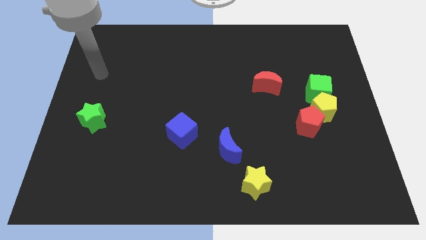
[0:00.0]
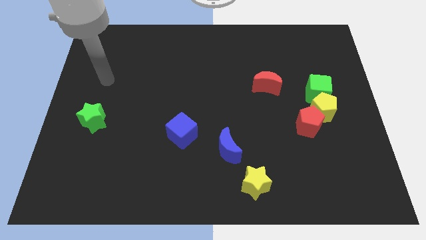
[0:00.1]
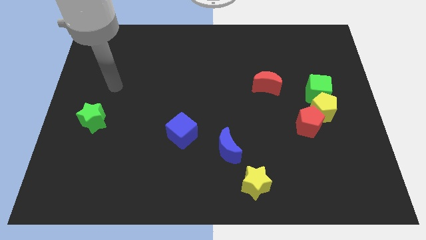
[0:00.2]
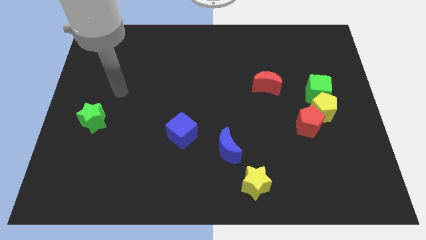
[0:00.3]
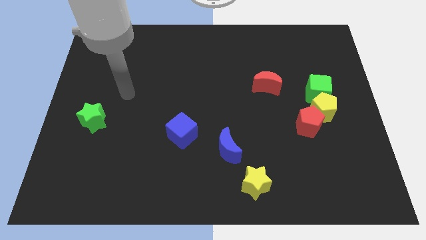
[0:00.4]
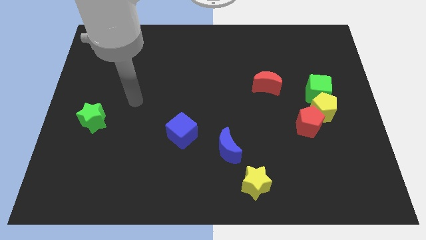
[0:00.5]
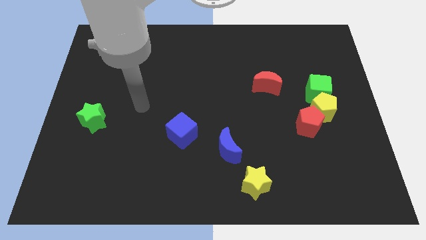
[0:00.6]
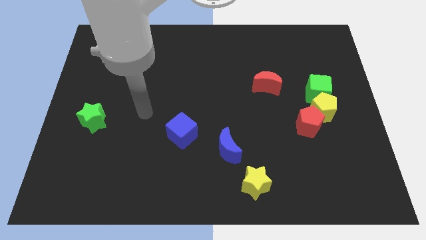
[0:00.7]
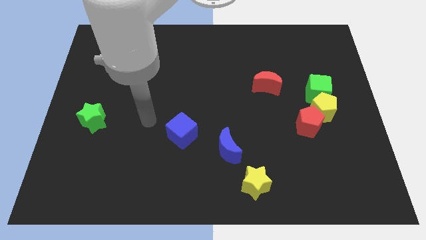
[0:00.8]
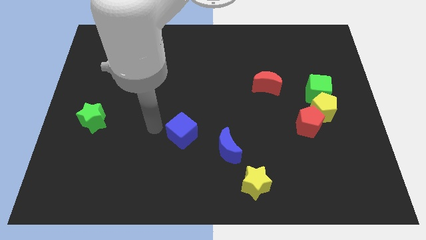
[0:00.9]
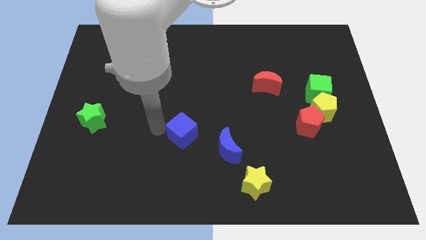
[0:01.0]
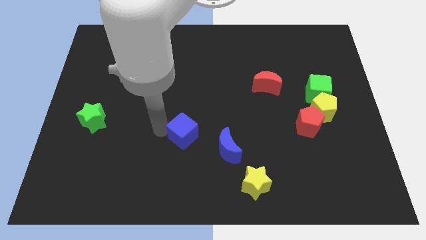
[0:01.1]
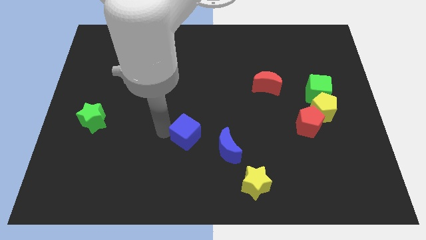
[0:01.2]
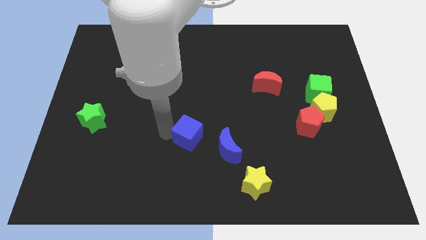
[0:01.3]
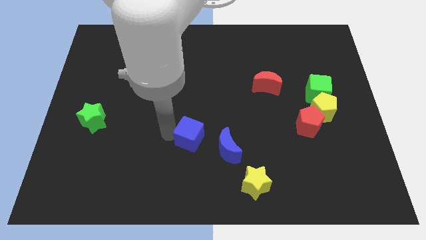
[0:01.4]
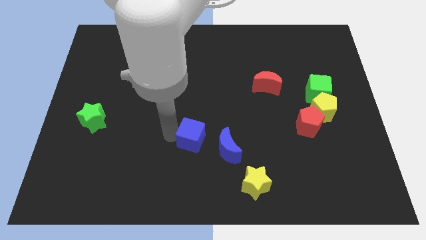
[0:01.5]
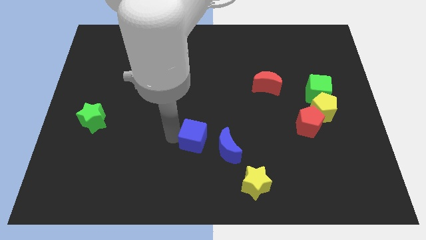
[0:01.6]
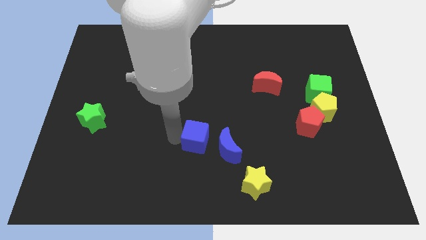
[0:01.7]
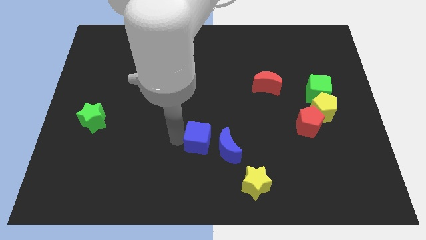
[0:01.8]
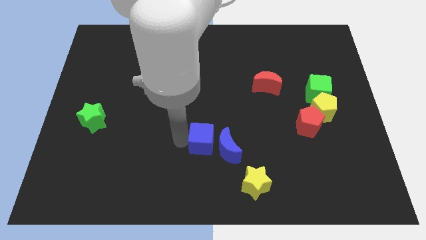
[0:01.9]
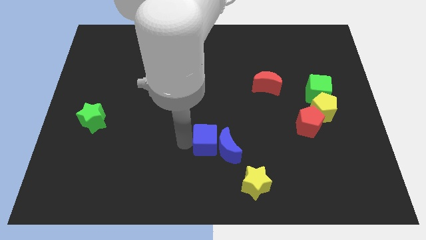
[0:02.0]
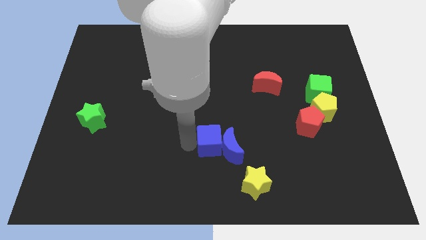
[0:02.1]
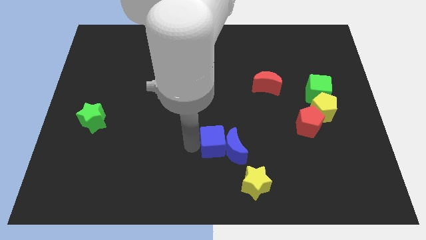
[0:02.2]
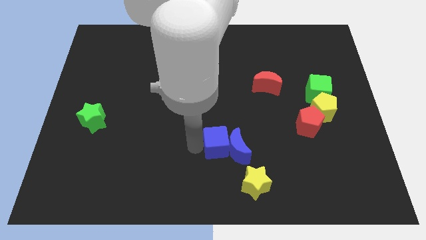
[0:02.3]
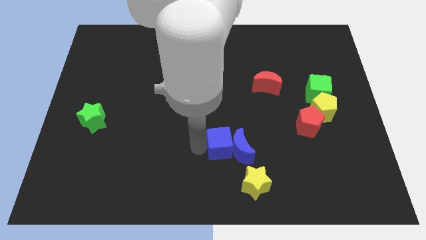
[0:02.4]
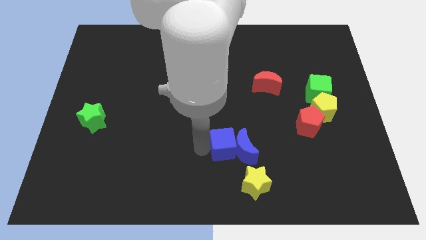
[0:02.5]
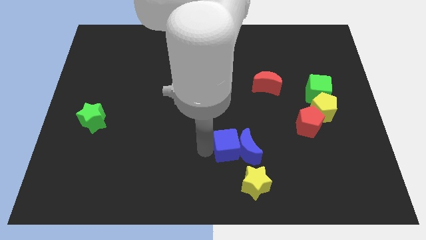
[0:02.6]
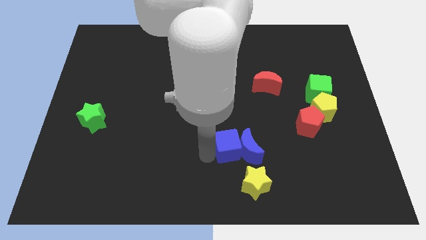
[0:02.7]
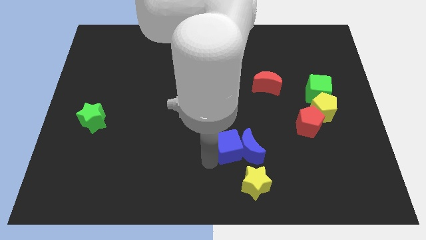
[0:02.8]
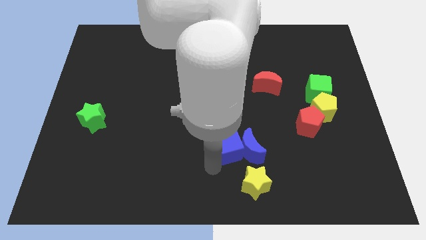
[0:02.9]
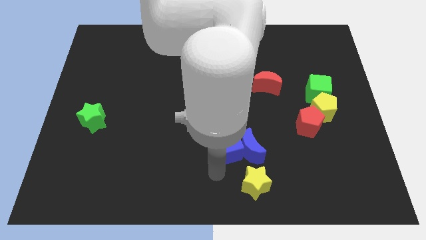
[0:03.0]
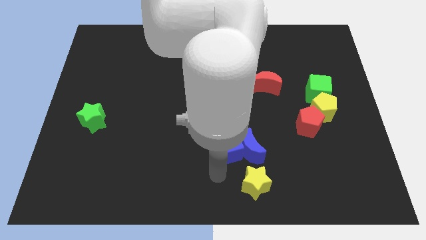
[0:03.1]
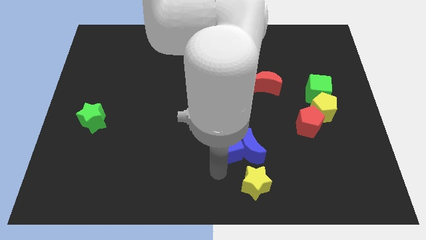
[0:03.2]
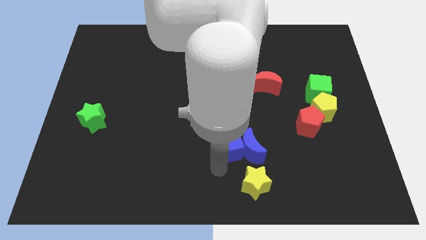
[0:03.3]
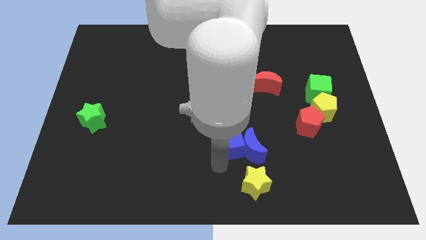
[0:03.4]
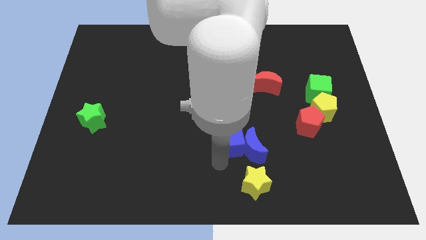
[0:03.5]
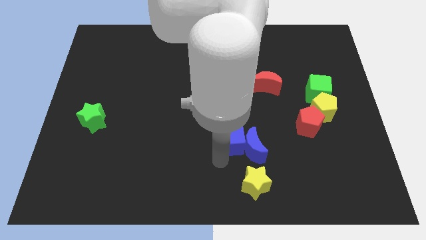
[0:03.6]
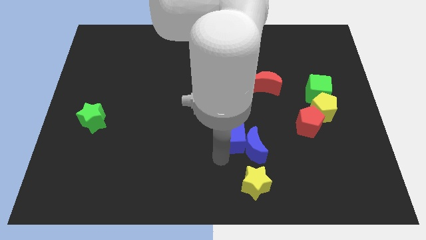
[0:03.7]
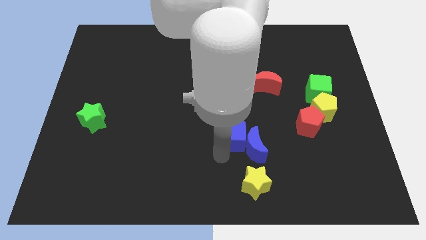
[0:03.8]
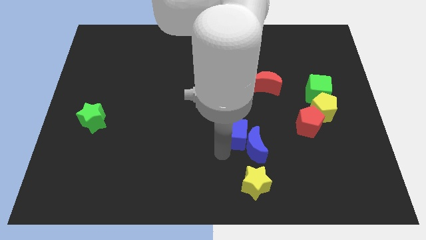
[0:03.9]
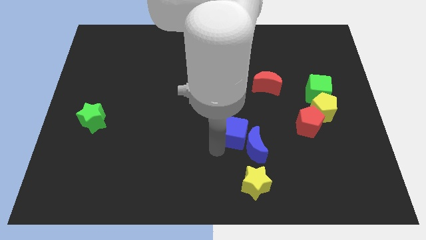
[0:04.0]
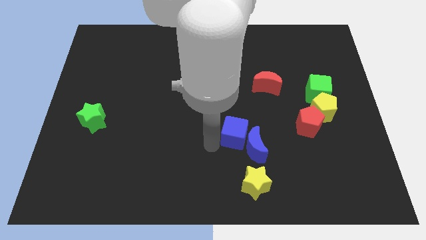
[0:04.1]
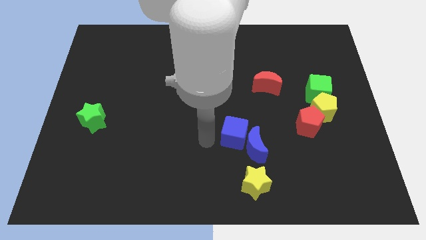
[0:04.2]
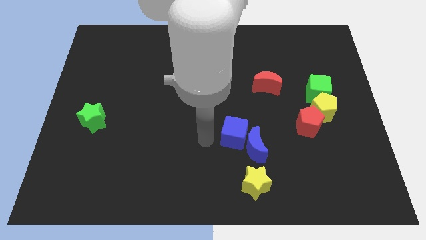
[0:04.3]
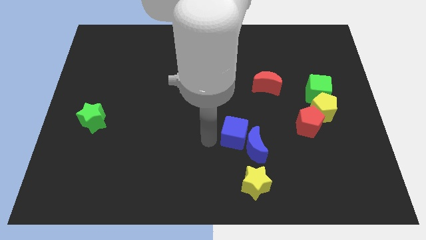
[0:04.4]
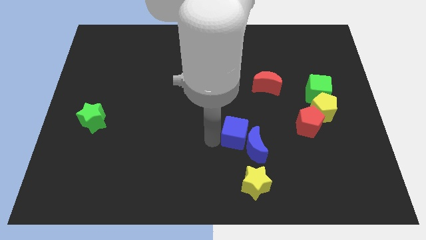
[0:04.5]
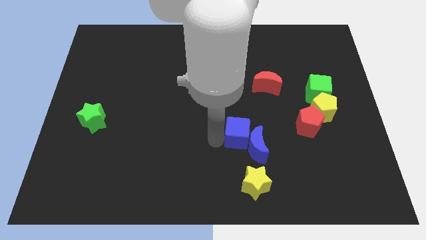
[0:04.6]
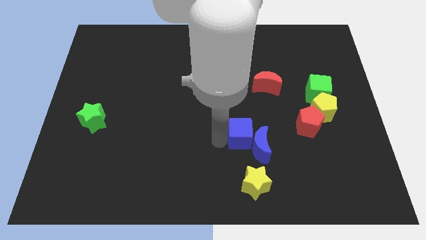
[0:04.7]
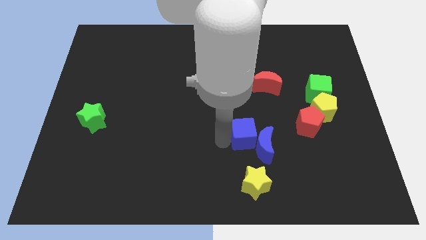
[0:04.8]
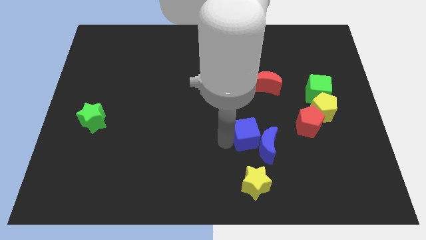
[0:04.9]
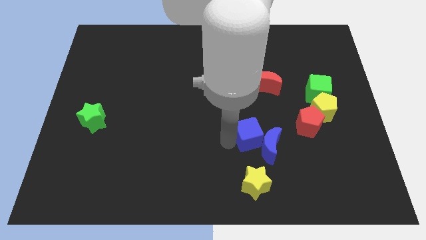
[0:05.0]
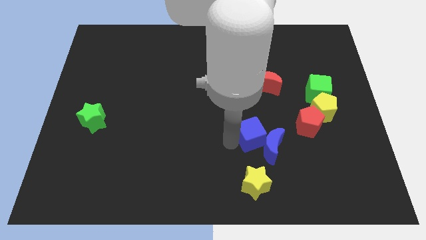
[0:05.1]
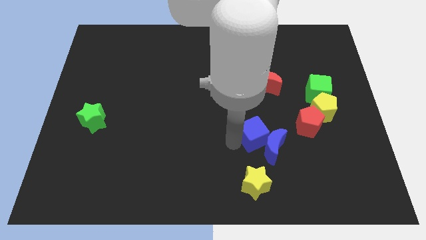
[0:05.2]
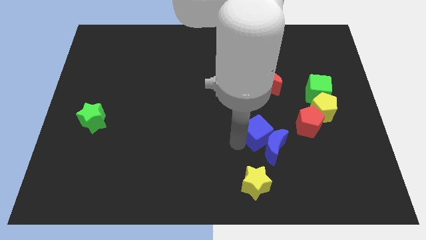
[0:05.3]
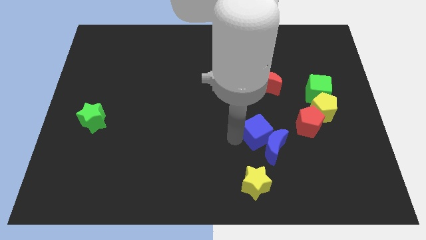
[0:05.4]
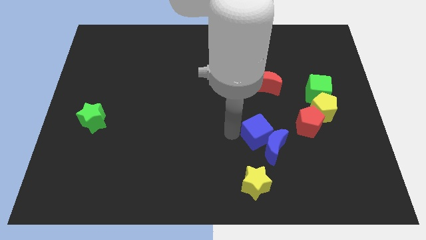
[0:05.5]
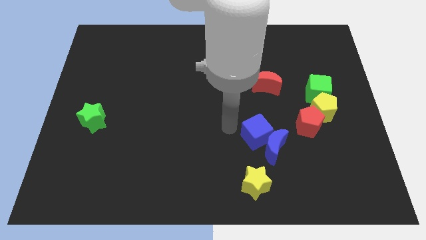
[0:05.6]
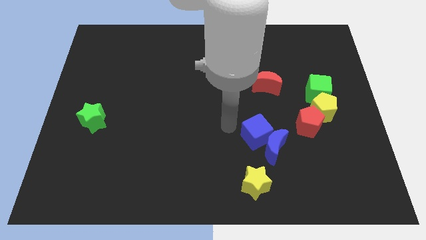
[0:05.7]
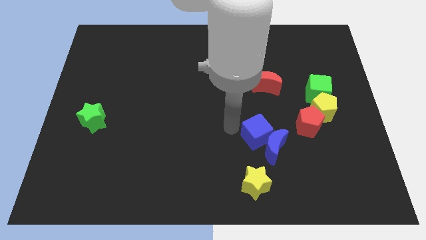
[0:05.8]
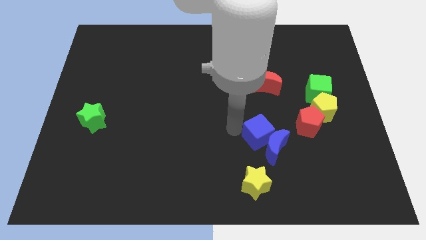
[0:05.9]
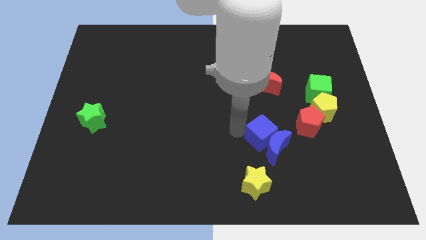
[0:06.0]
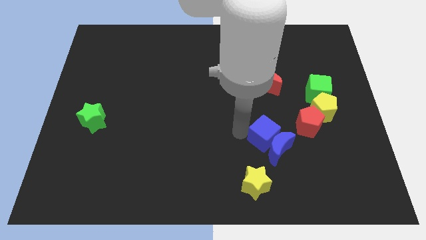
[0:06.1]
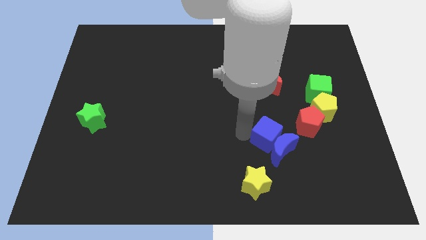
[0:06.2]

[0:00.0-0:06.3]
push the blue cube diagonally down and to the left of the red pentagon
